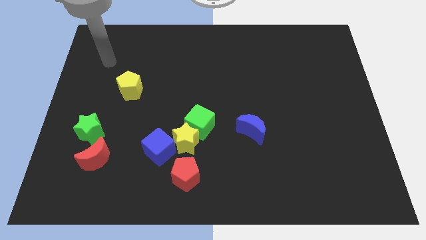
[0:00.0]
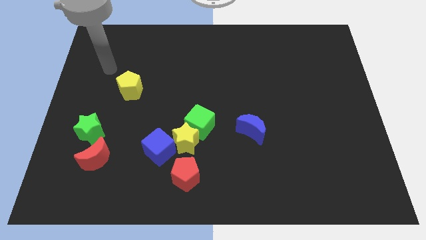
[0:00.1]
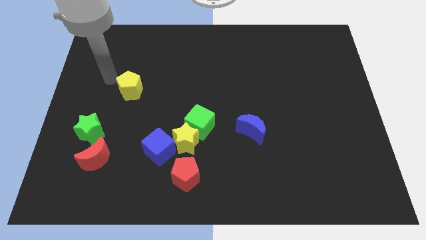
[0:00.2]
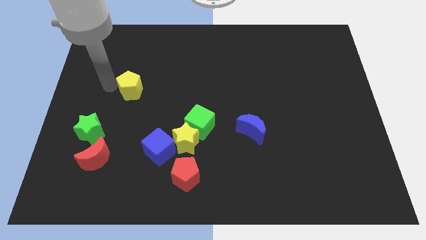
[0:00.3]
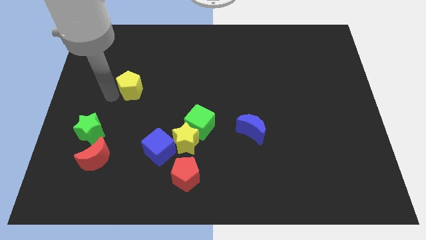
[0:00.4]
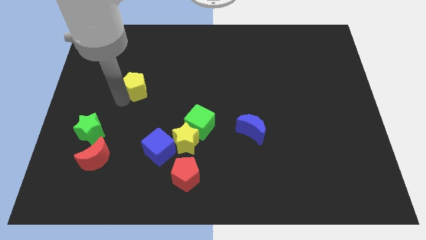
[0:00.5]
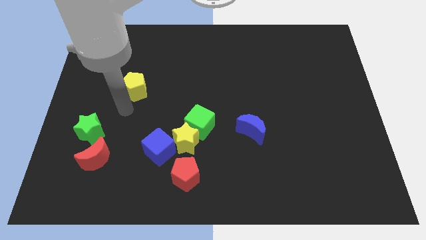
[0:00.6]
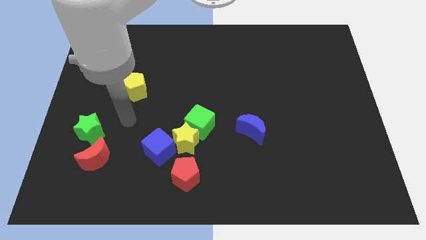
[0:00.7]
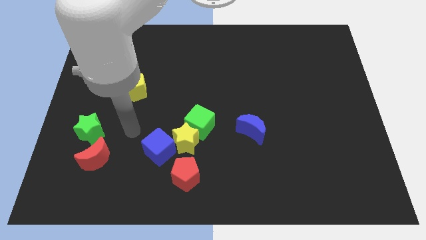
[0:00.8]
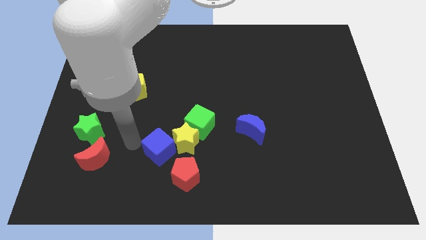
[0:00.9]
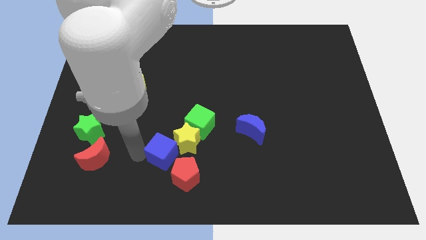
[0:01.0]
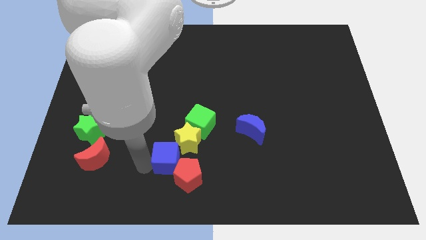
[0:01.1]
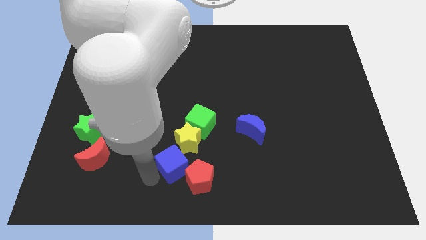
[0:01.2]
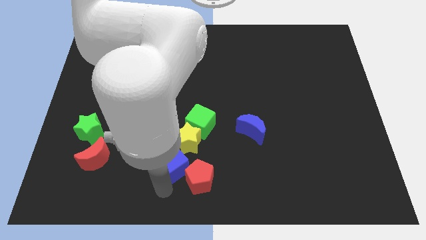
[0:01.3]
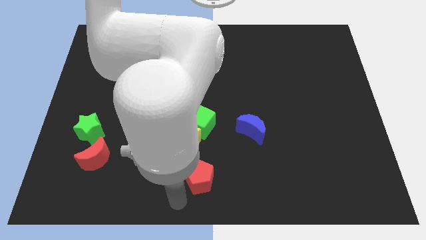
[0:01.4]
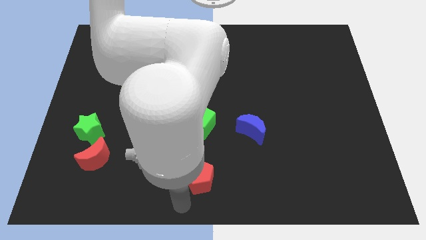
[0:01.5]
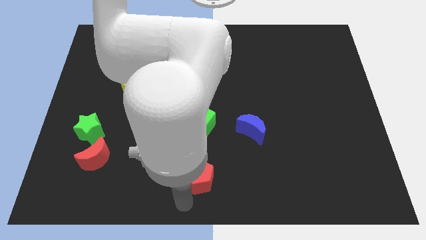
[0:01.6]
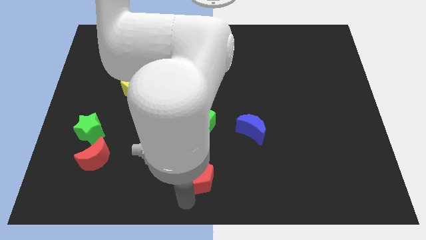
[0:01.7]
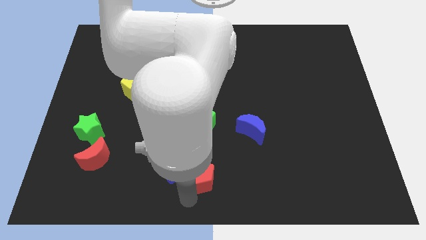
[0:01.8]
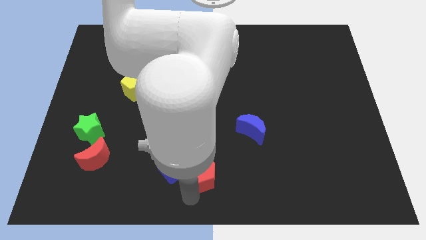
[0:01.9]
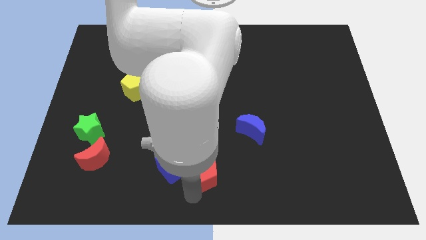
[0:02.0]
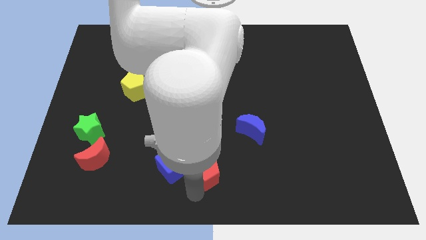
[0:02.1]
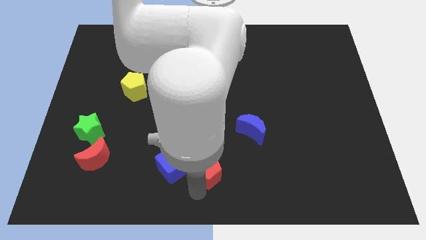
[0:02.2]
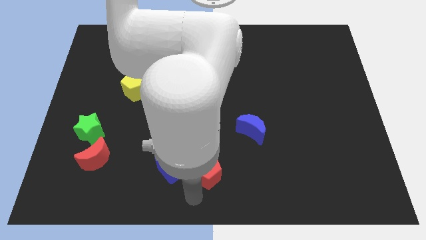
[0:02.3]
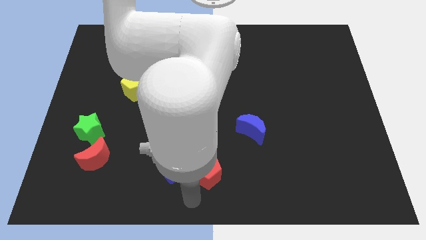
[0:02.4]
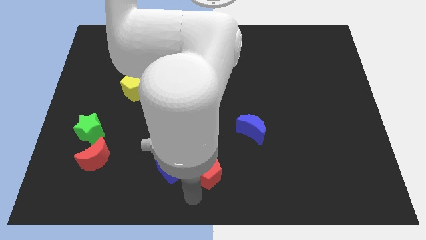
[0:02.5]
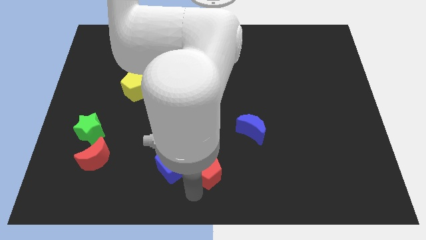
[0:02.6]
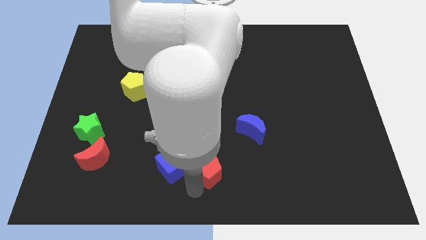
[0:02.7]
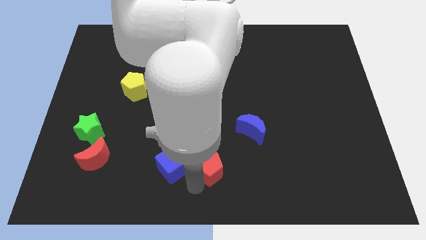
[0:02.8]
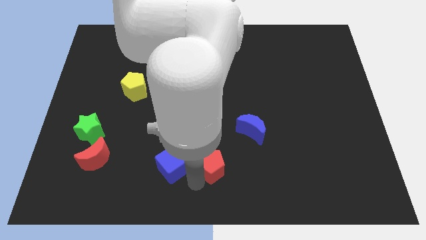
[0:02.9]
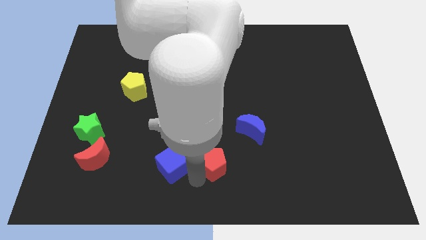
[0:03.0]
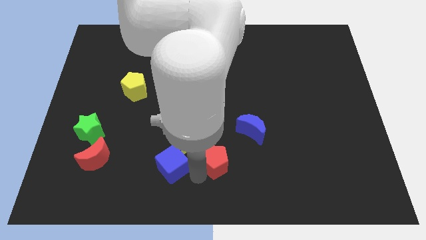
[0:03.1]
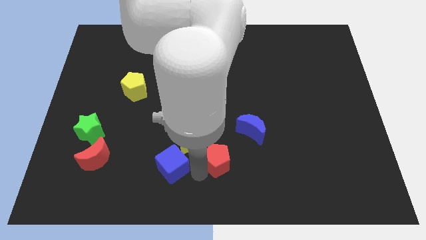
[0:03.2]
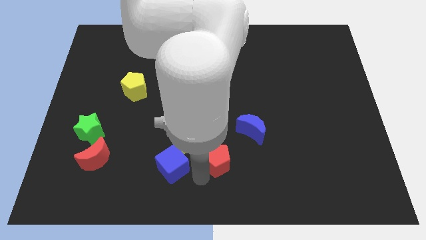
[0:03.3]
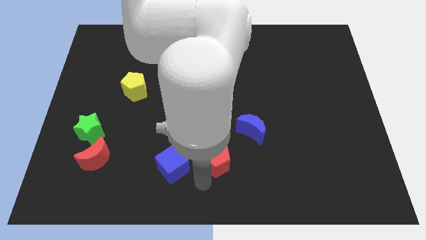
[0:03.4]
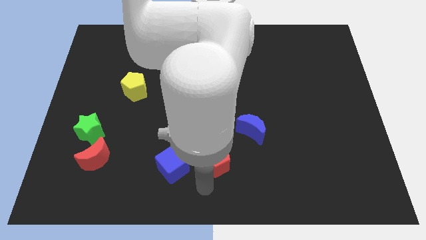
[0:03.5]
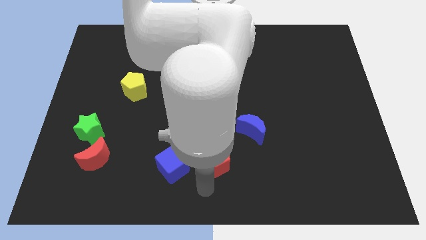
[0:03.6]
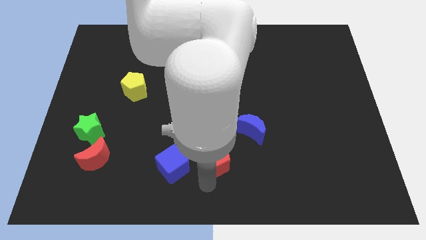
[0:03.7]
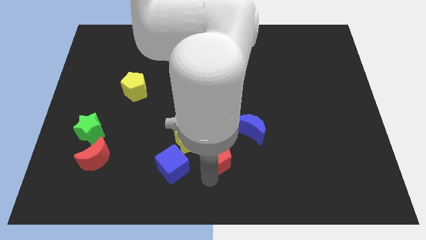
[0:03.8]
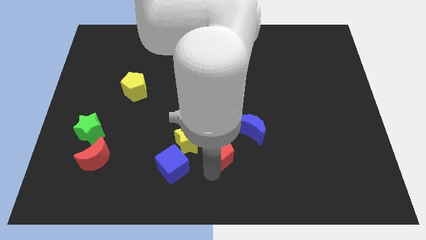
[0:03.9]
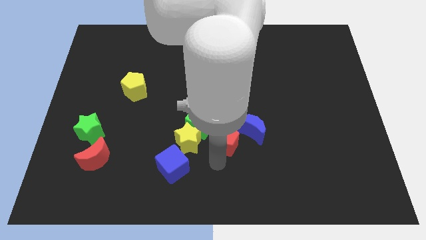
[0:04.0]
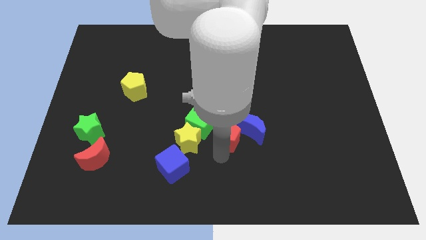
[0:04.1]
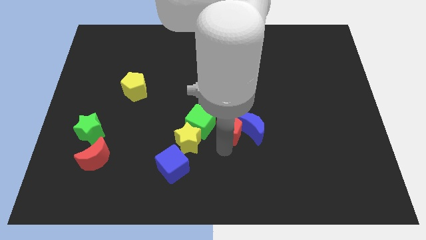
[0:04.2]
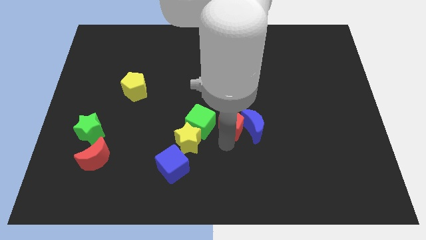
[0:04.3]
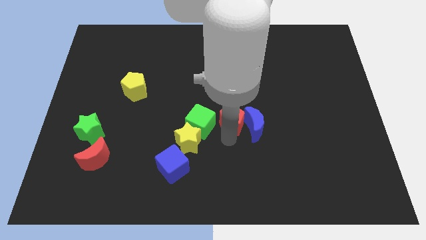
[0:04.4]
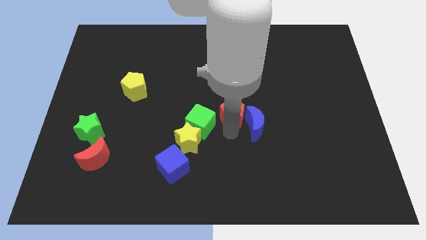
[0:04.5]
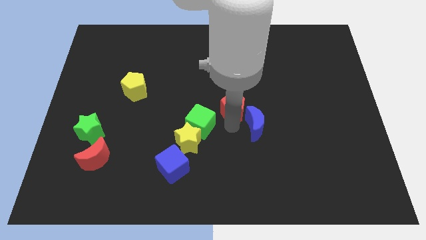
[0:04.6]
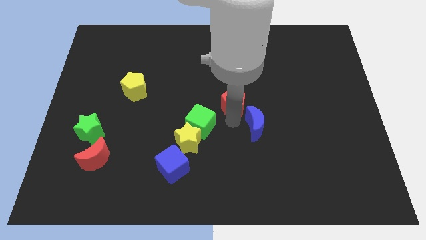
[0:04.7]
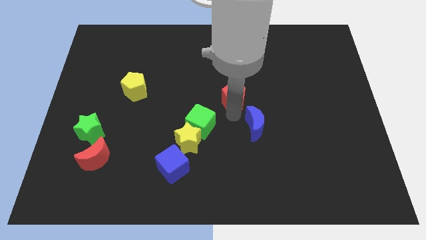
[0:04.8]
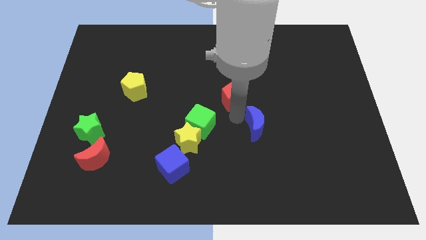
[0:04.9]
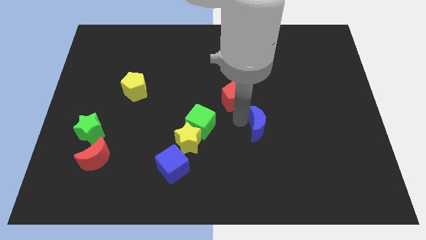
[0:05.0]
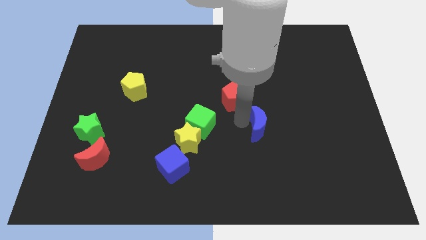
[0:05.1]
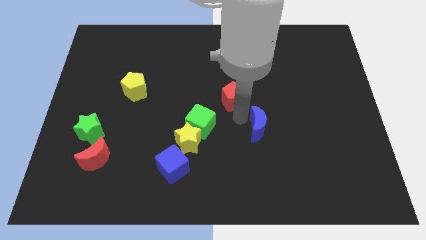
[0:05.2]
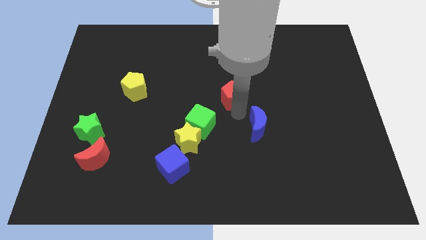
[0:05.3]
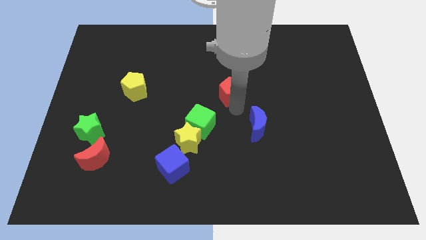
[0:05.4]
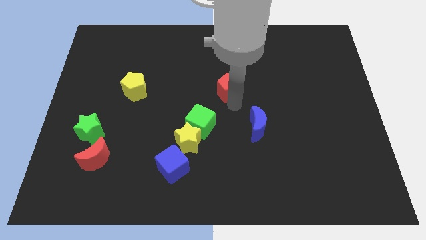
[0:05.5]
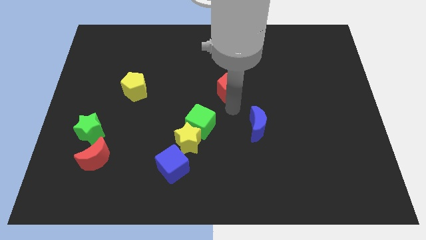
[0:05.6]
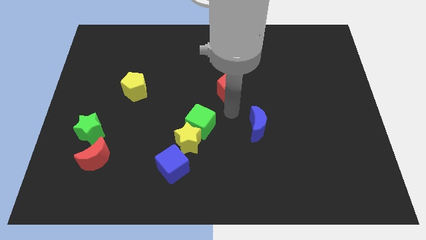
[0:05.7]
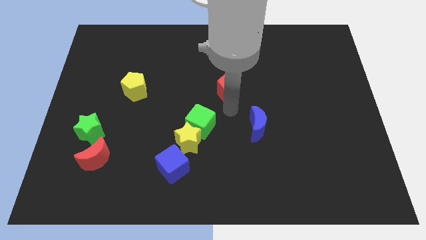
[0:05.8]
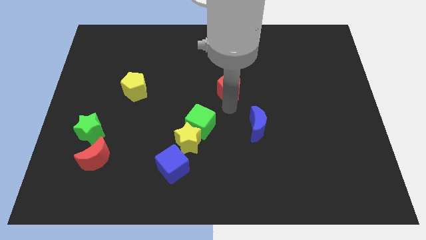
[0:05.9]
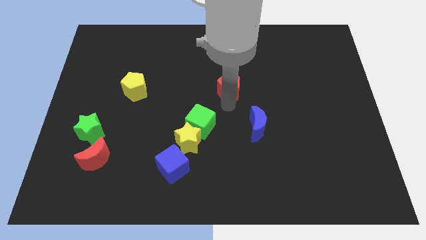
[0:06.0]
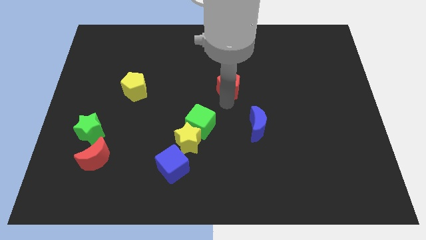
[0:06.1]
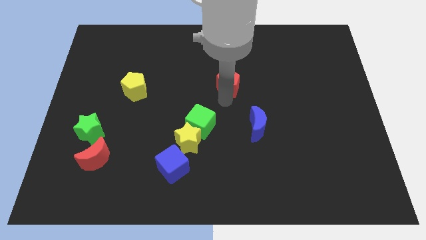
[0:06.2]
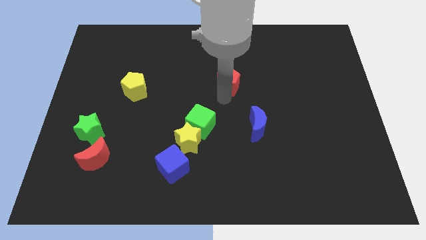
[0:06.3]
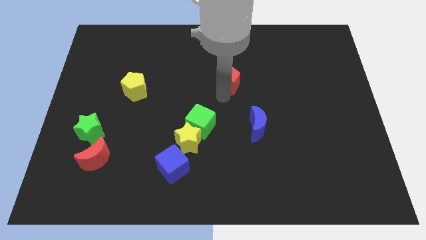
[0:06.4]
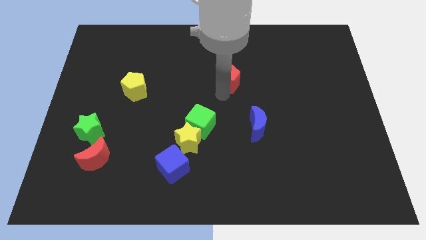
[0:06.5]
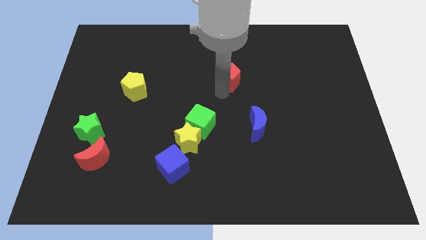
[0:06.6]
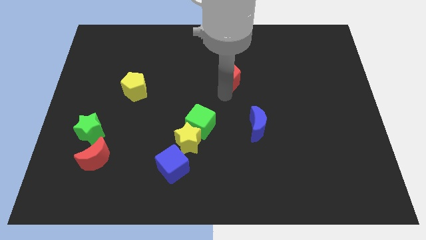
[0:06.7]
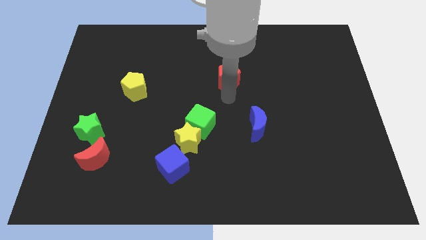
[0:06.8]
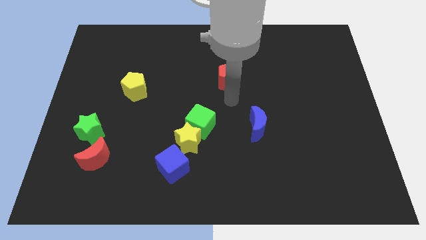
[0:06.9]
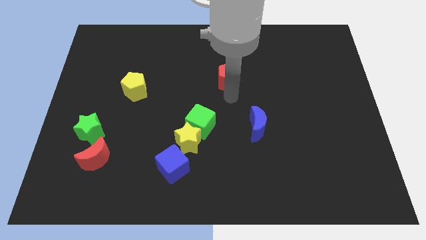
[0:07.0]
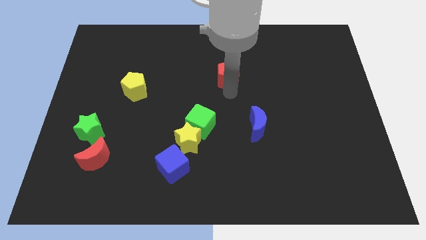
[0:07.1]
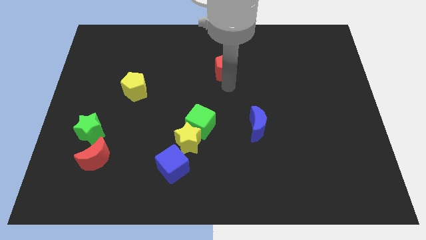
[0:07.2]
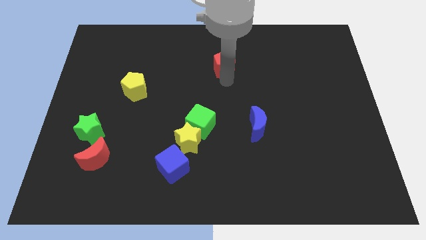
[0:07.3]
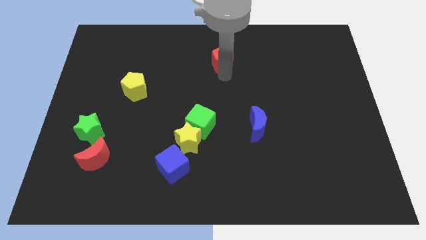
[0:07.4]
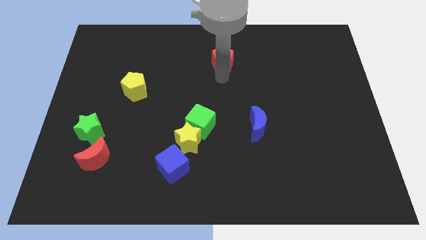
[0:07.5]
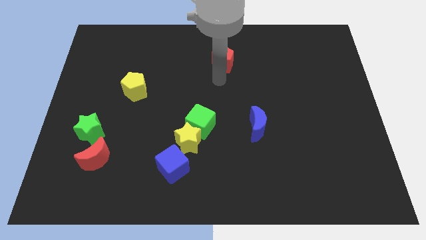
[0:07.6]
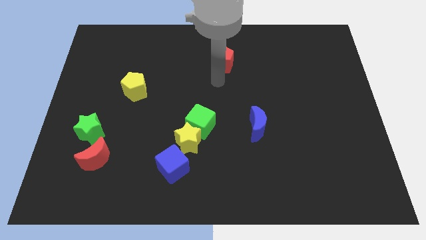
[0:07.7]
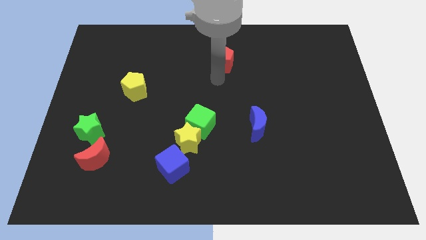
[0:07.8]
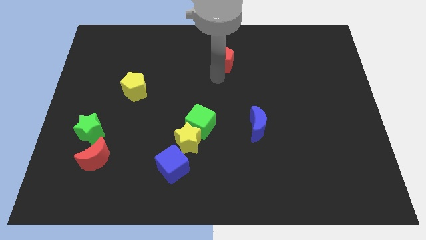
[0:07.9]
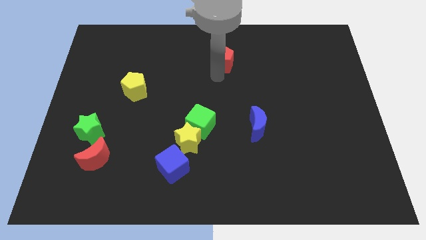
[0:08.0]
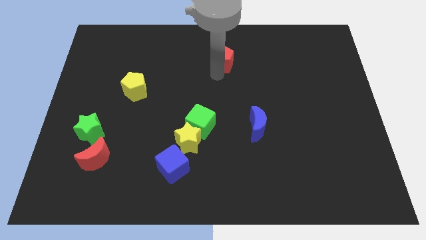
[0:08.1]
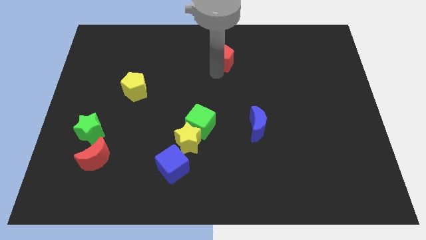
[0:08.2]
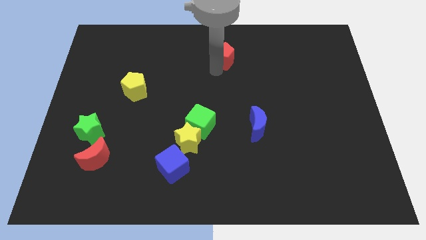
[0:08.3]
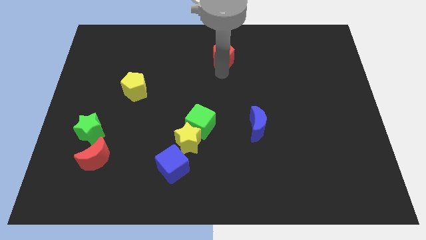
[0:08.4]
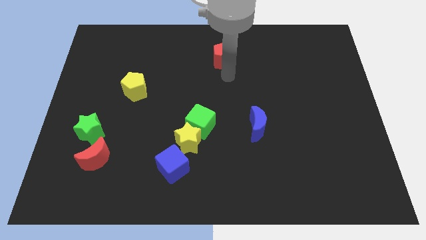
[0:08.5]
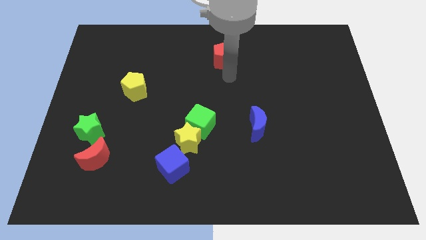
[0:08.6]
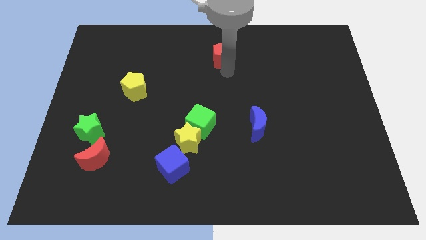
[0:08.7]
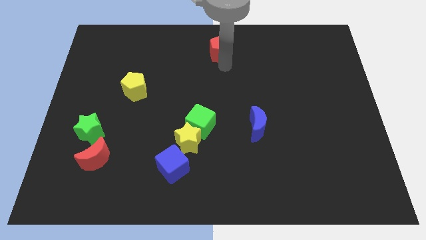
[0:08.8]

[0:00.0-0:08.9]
move the red pentagon to the top side
